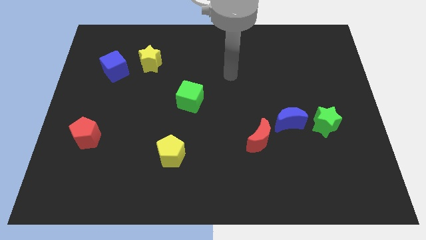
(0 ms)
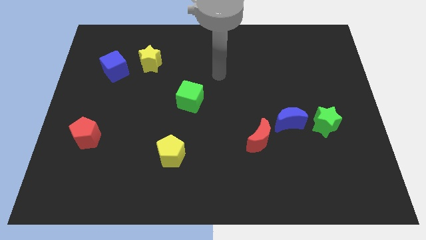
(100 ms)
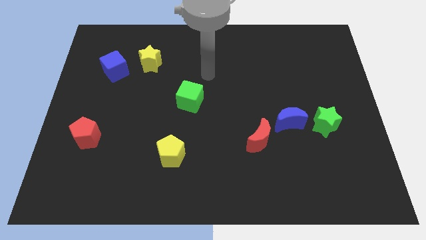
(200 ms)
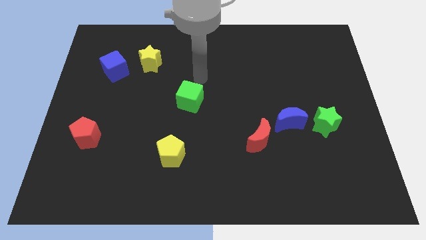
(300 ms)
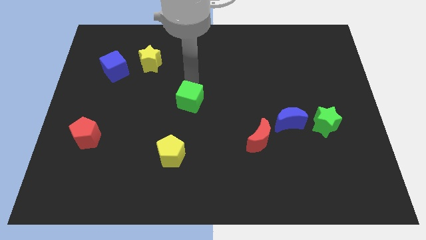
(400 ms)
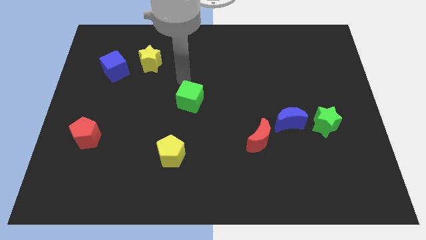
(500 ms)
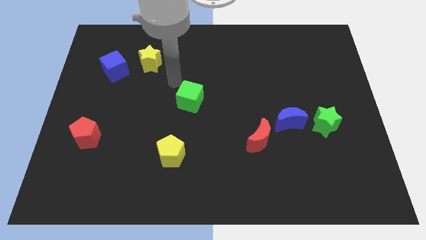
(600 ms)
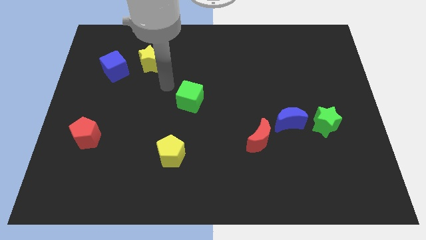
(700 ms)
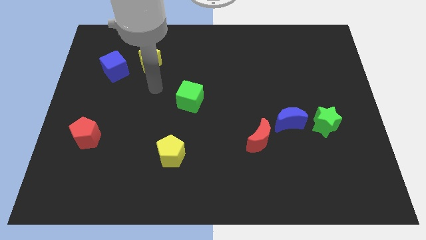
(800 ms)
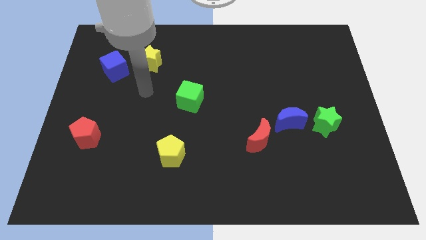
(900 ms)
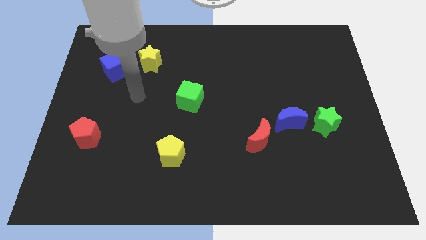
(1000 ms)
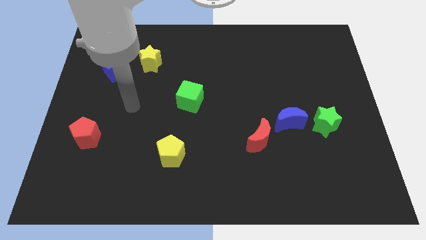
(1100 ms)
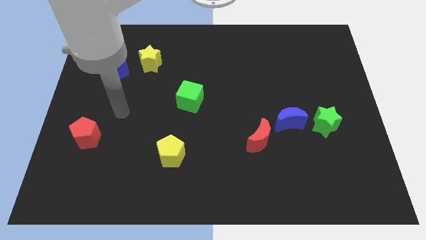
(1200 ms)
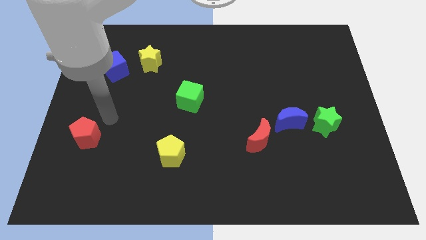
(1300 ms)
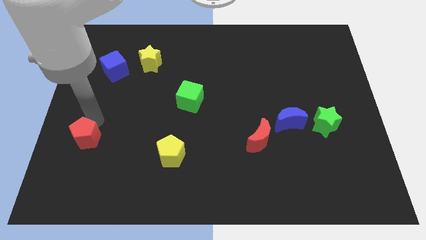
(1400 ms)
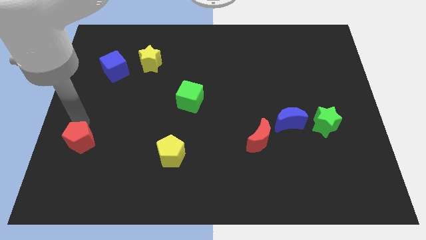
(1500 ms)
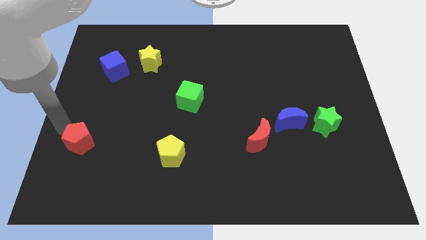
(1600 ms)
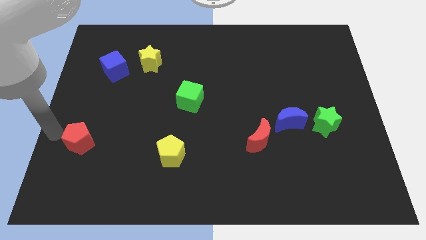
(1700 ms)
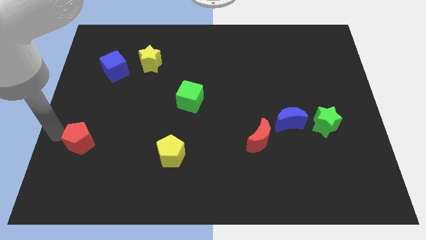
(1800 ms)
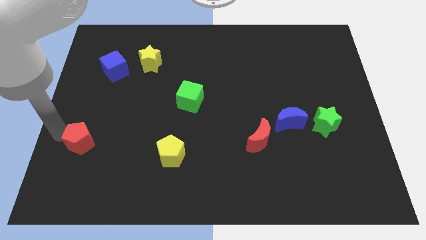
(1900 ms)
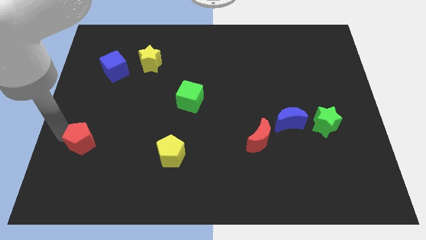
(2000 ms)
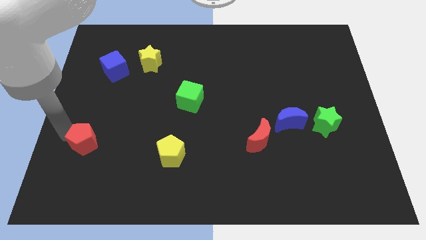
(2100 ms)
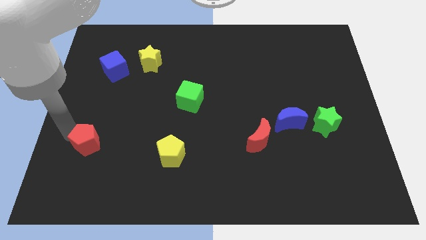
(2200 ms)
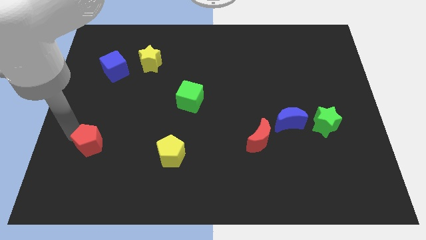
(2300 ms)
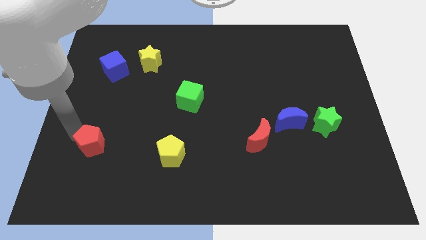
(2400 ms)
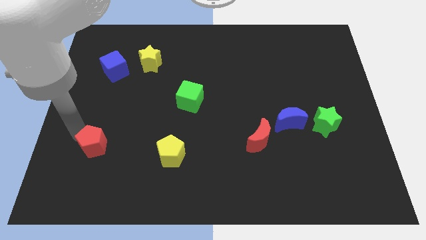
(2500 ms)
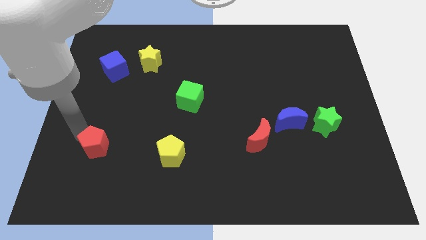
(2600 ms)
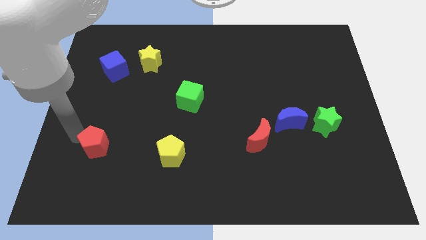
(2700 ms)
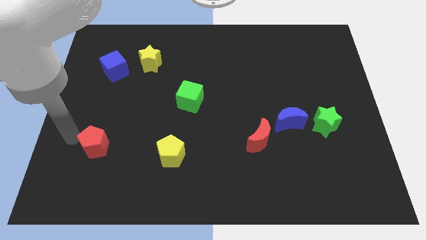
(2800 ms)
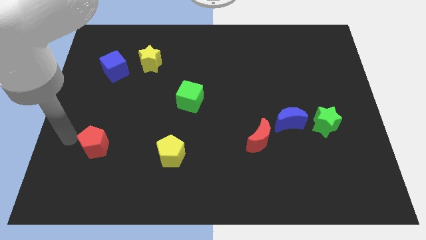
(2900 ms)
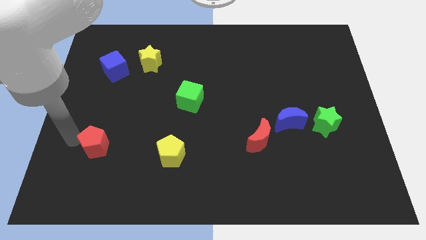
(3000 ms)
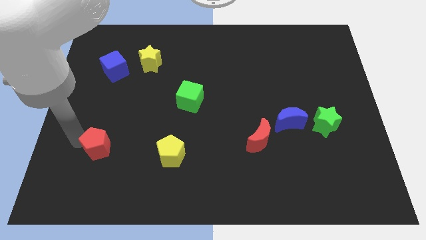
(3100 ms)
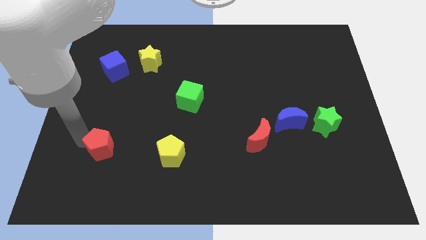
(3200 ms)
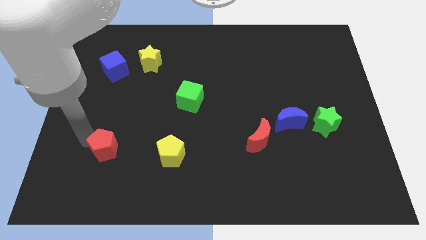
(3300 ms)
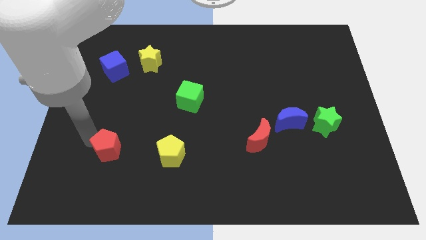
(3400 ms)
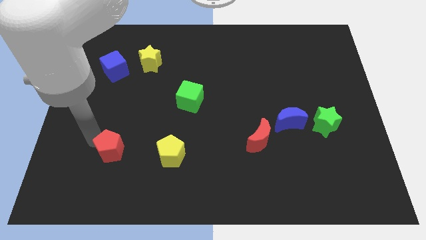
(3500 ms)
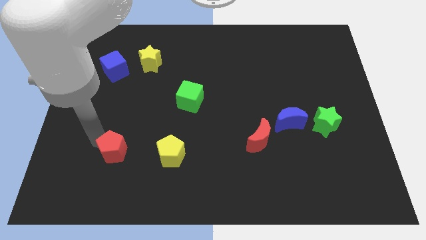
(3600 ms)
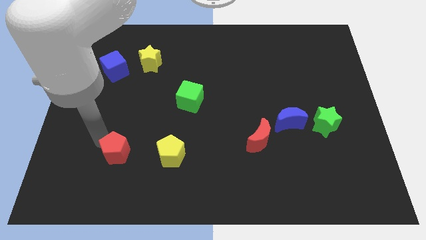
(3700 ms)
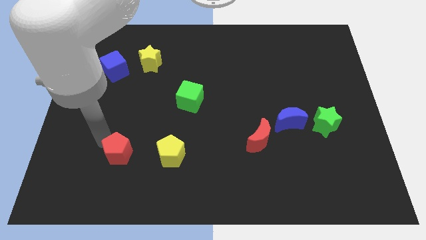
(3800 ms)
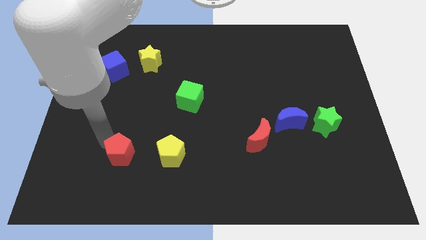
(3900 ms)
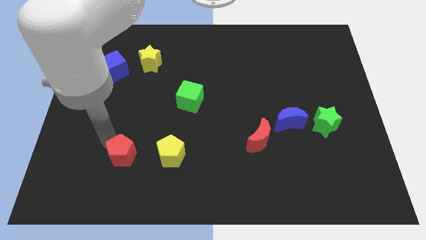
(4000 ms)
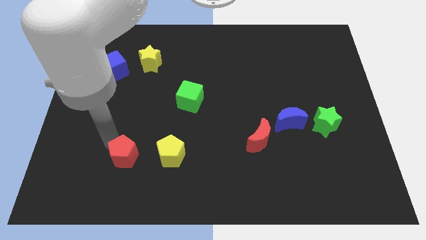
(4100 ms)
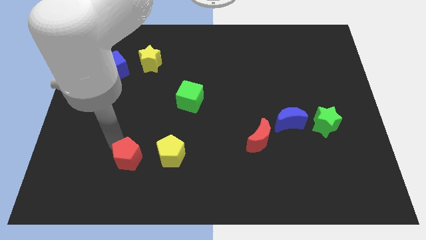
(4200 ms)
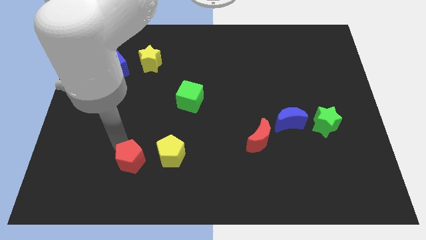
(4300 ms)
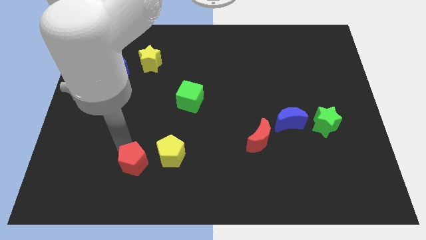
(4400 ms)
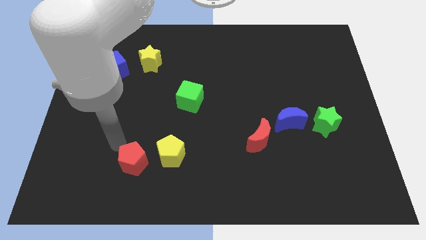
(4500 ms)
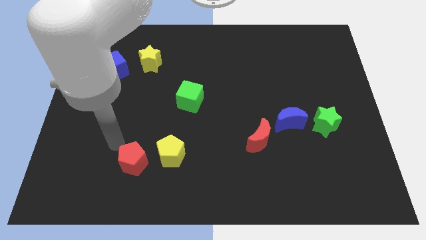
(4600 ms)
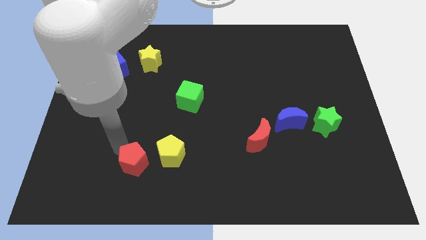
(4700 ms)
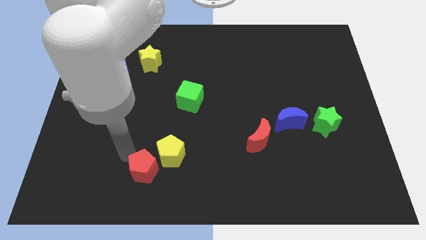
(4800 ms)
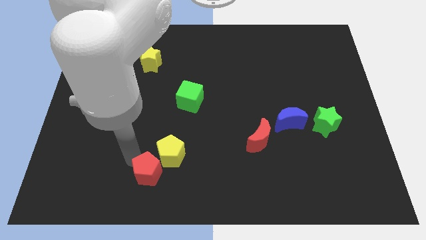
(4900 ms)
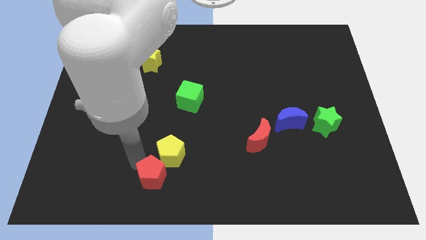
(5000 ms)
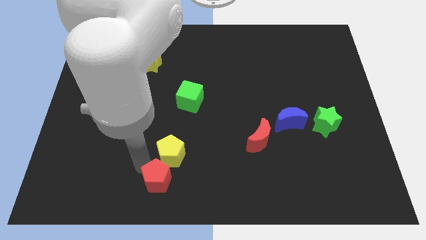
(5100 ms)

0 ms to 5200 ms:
move the red pentagon to the bottom

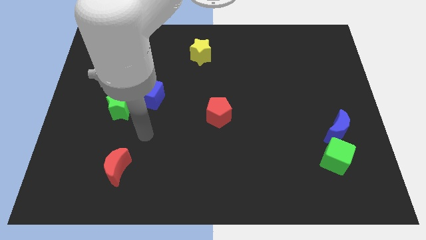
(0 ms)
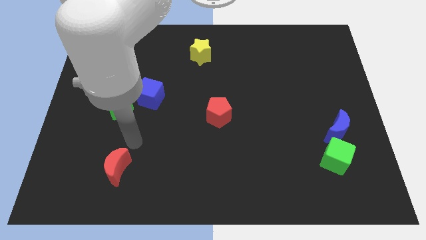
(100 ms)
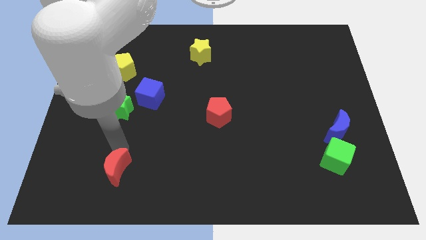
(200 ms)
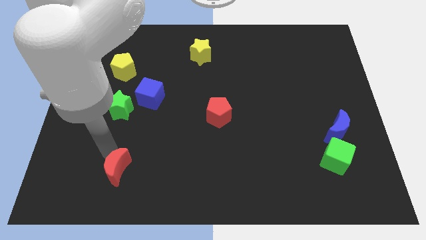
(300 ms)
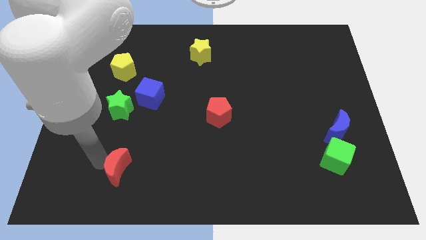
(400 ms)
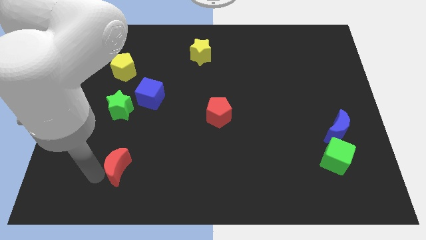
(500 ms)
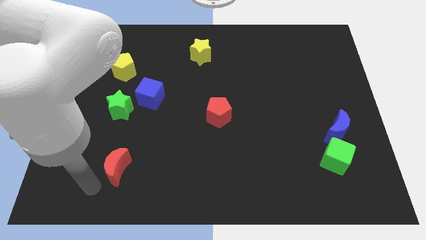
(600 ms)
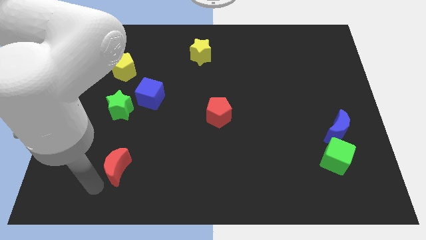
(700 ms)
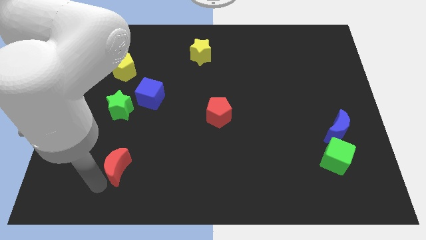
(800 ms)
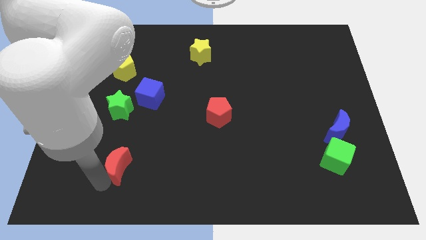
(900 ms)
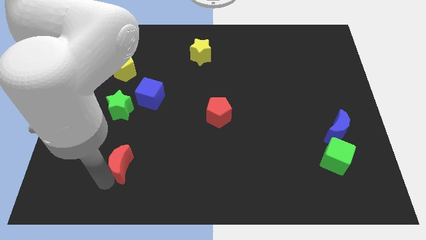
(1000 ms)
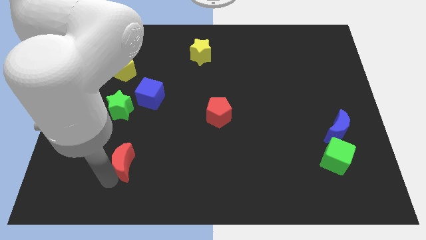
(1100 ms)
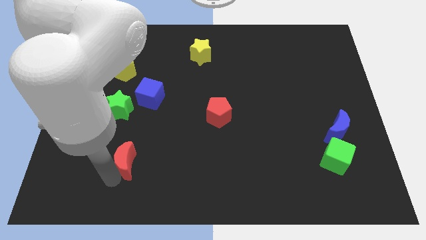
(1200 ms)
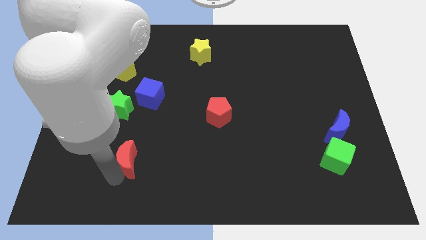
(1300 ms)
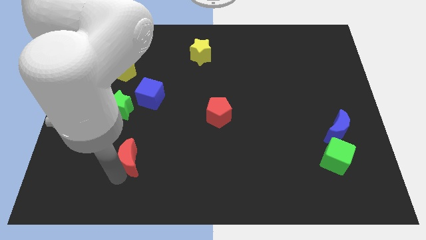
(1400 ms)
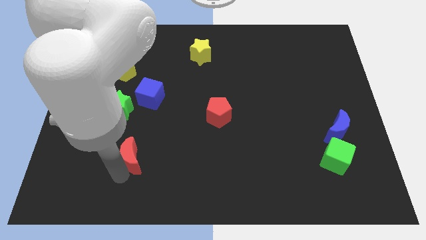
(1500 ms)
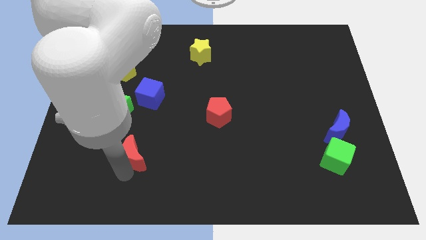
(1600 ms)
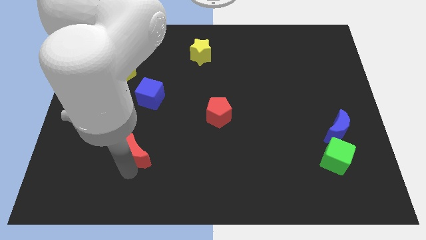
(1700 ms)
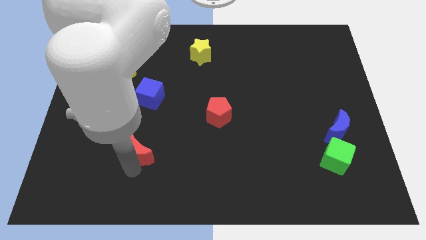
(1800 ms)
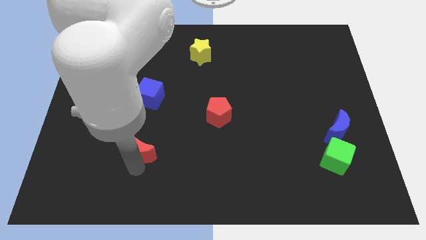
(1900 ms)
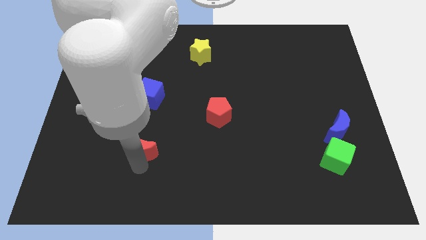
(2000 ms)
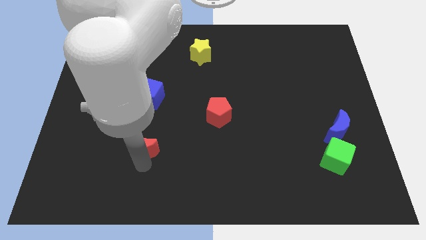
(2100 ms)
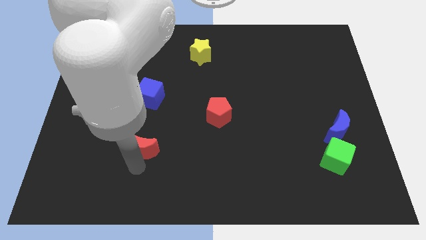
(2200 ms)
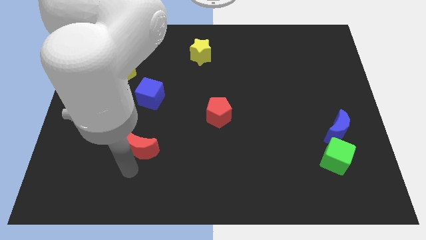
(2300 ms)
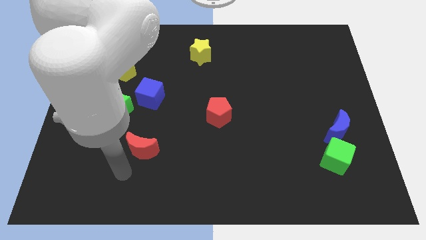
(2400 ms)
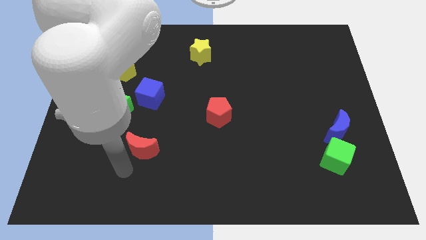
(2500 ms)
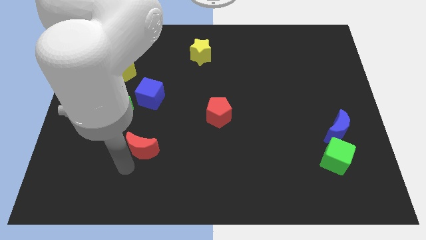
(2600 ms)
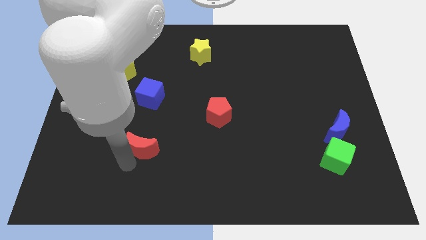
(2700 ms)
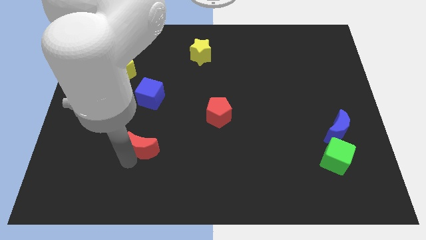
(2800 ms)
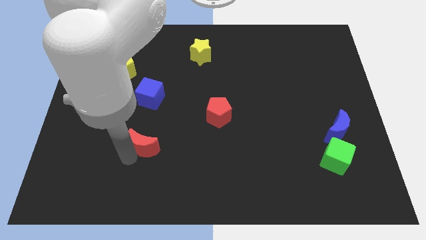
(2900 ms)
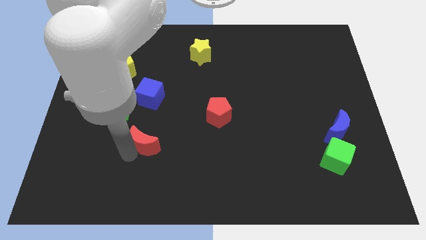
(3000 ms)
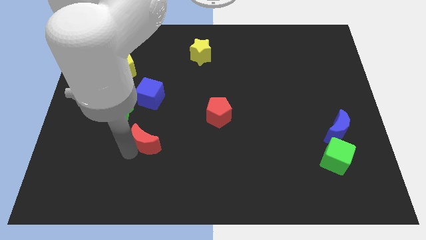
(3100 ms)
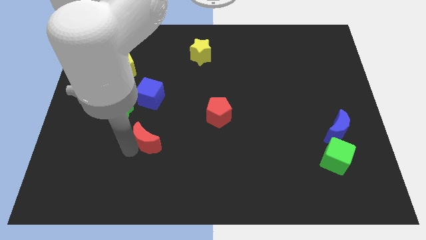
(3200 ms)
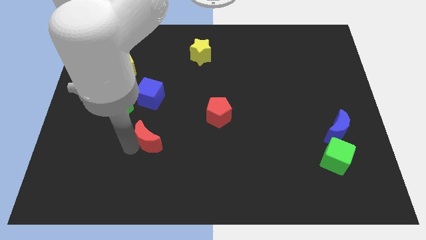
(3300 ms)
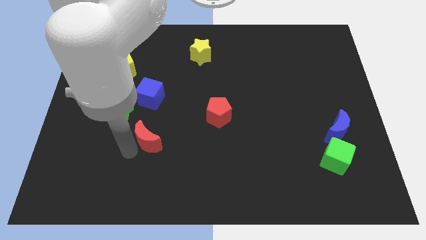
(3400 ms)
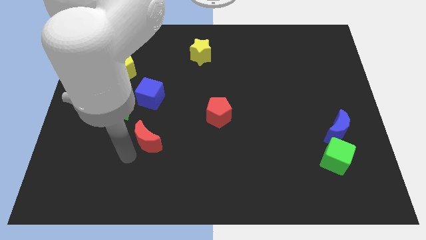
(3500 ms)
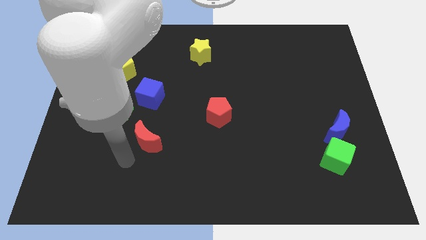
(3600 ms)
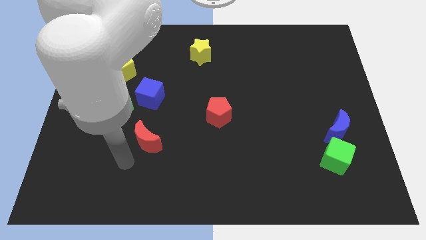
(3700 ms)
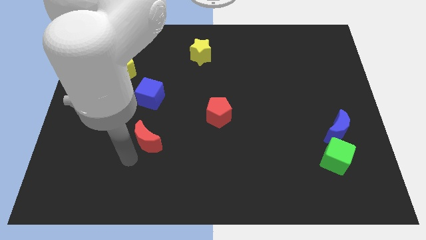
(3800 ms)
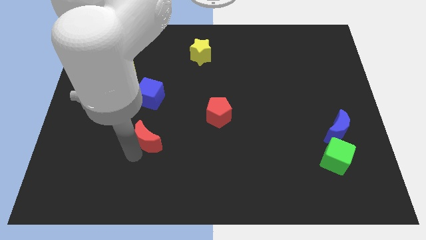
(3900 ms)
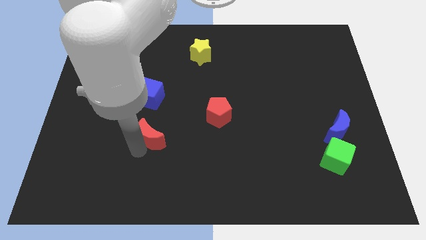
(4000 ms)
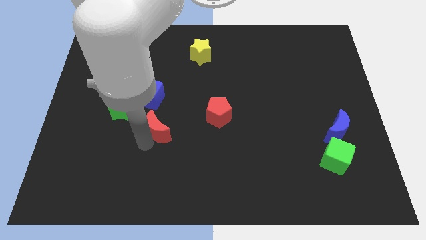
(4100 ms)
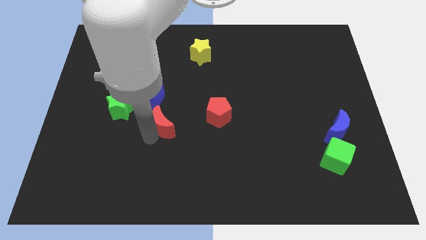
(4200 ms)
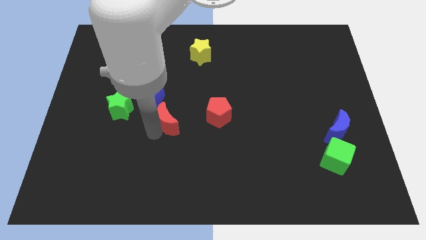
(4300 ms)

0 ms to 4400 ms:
push the red moon to the center
